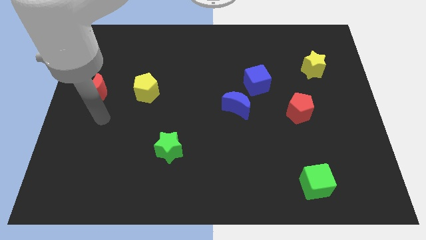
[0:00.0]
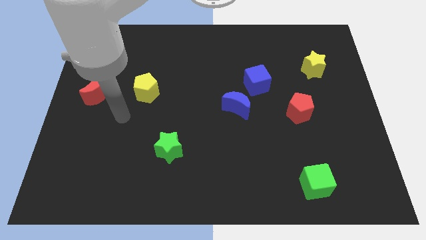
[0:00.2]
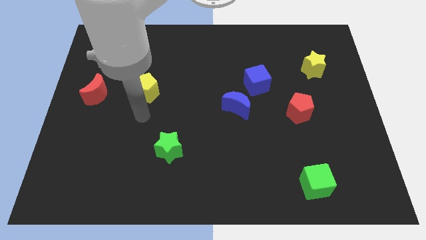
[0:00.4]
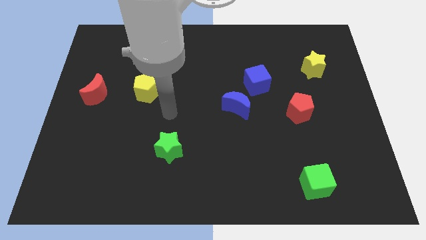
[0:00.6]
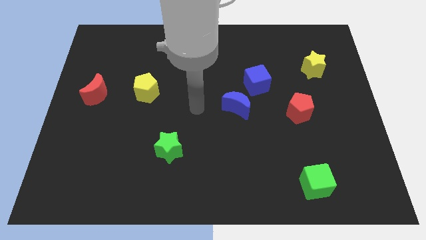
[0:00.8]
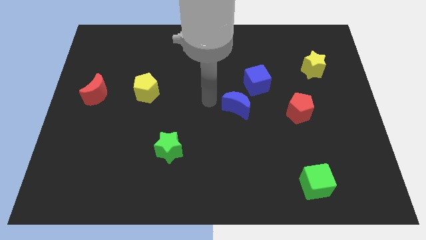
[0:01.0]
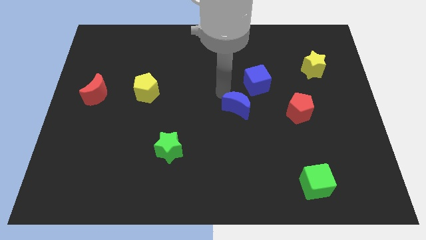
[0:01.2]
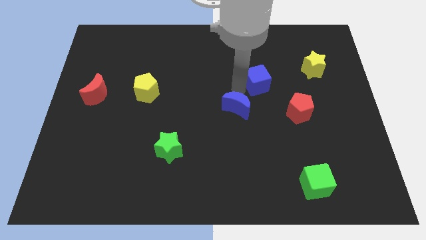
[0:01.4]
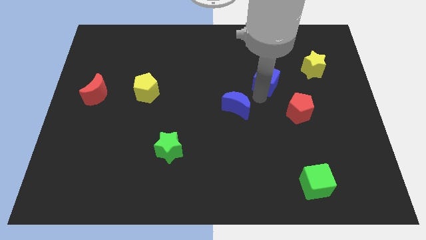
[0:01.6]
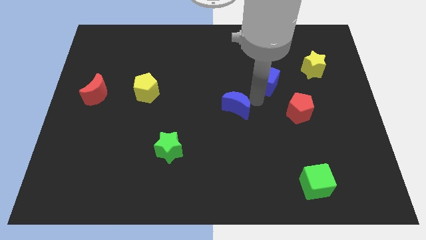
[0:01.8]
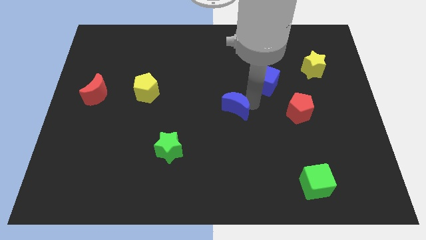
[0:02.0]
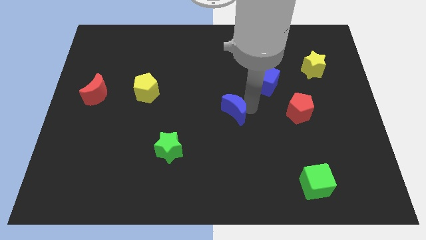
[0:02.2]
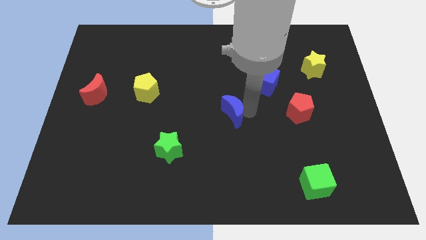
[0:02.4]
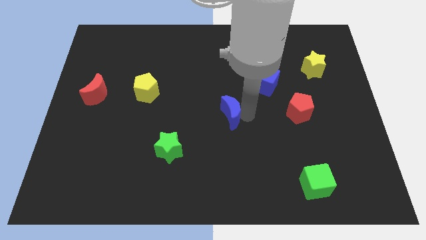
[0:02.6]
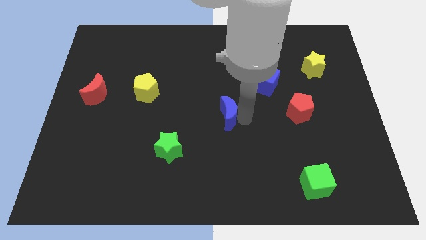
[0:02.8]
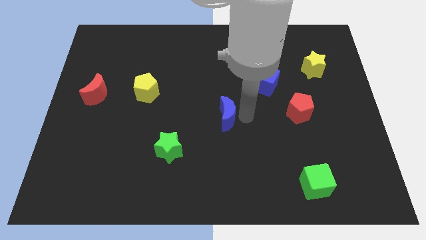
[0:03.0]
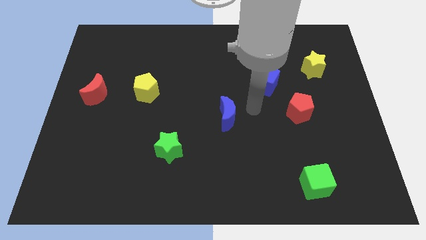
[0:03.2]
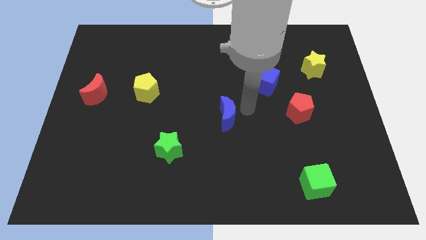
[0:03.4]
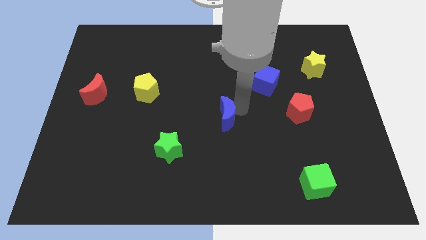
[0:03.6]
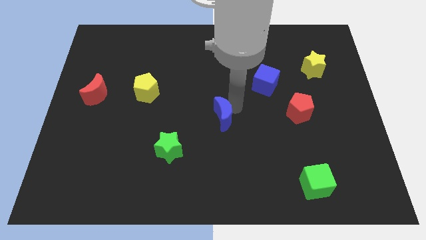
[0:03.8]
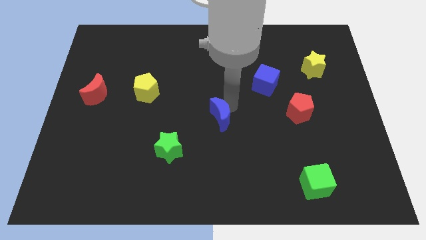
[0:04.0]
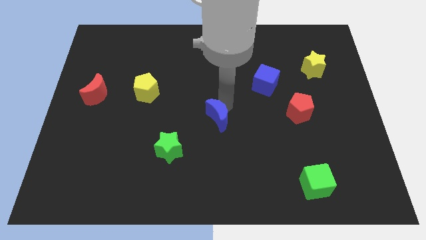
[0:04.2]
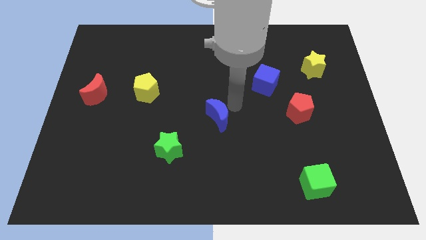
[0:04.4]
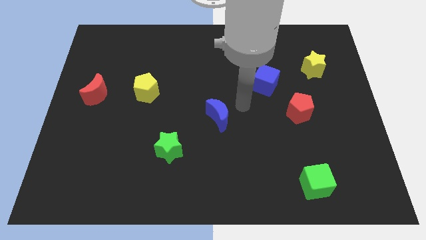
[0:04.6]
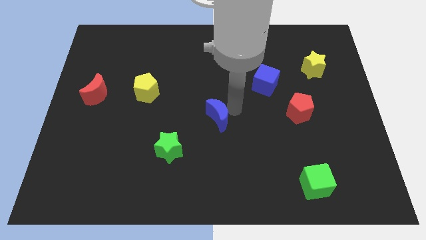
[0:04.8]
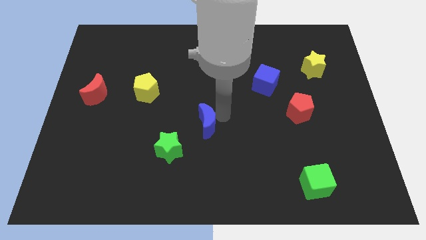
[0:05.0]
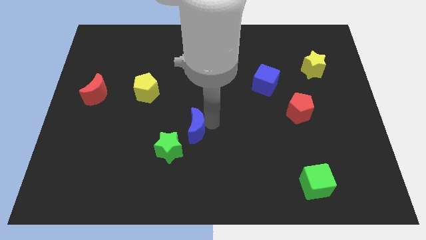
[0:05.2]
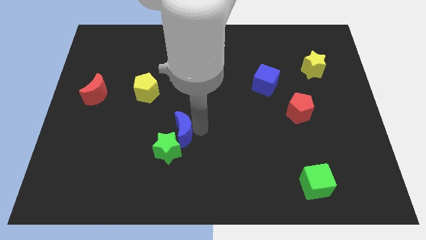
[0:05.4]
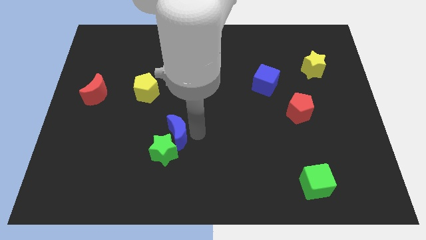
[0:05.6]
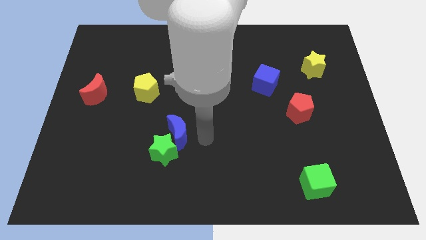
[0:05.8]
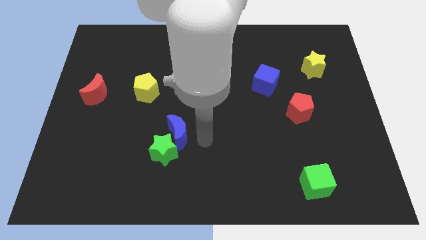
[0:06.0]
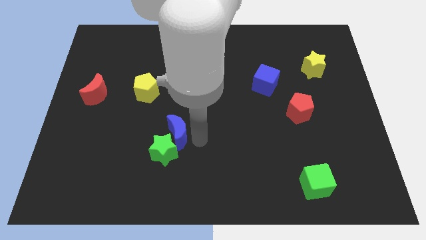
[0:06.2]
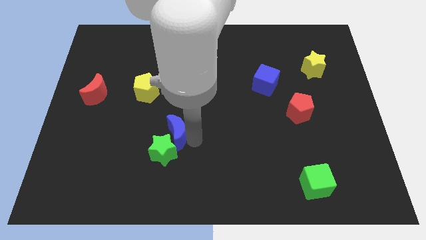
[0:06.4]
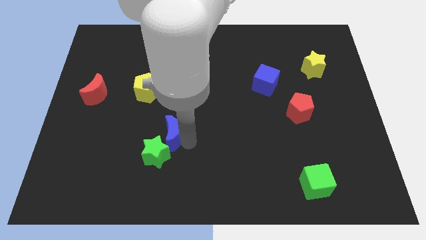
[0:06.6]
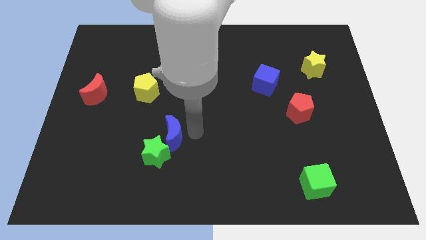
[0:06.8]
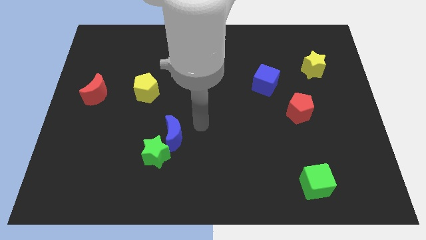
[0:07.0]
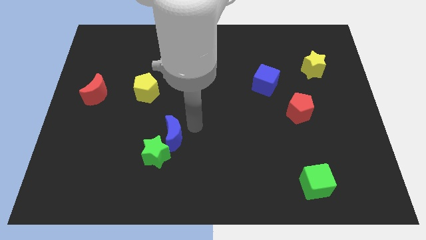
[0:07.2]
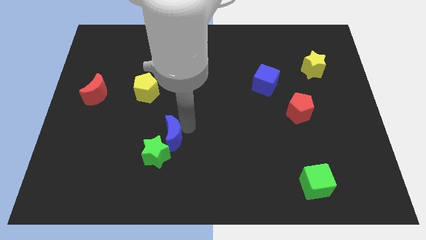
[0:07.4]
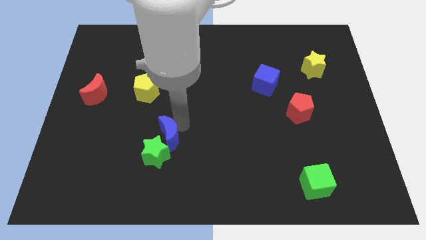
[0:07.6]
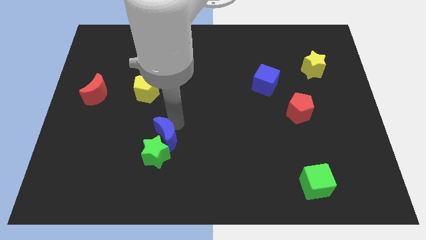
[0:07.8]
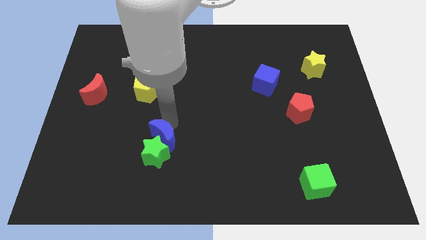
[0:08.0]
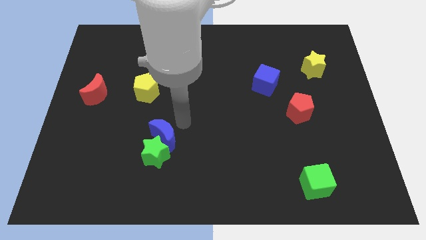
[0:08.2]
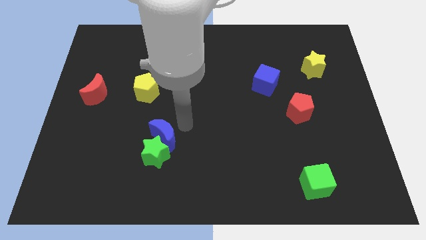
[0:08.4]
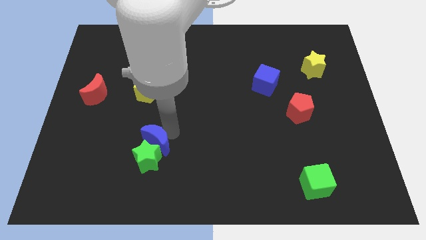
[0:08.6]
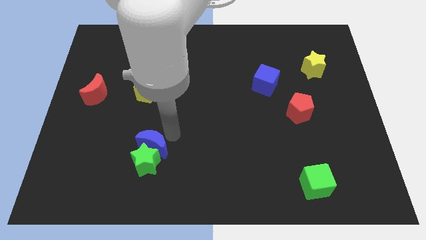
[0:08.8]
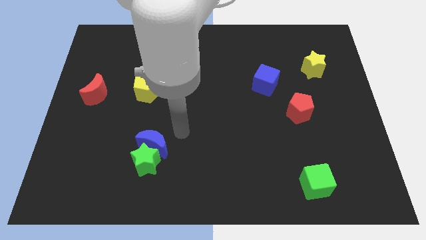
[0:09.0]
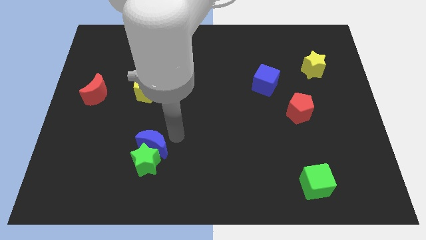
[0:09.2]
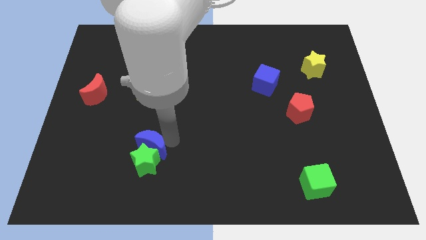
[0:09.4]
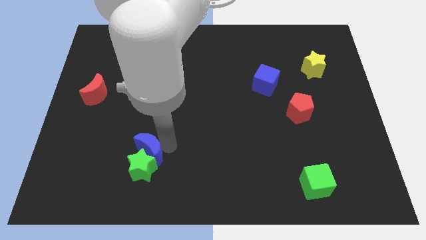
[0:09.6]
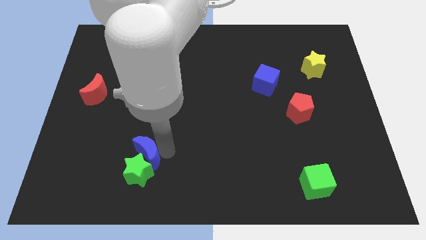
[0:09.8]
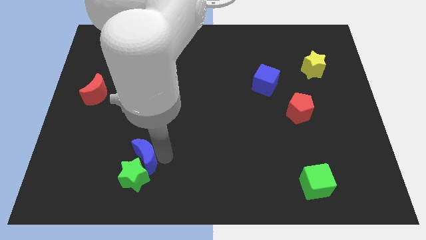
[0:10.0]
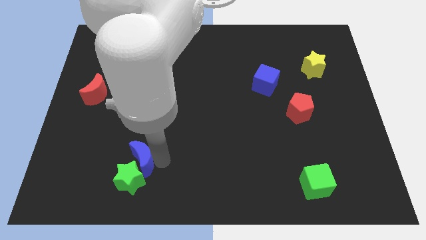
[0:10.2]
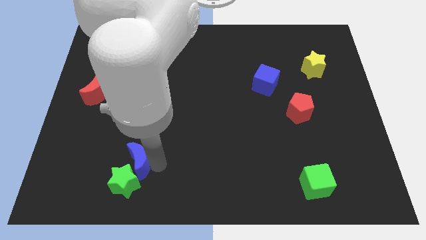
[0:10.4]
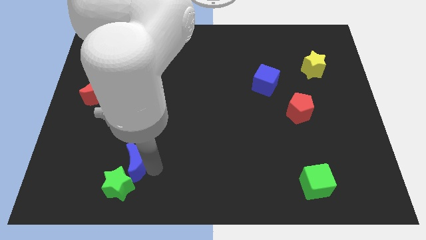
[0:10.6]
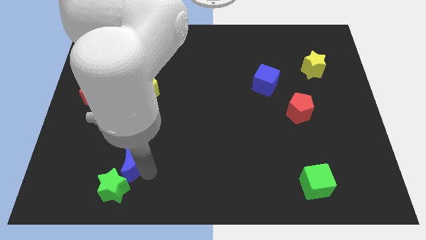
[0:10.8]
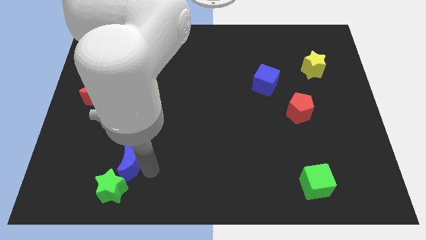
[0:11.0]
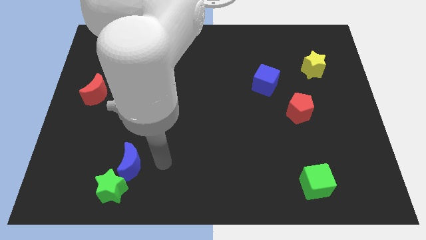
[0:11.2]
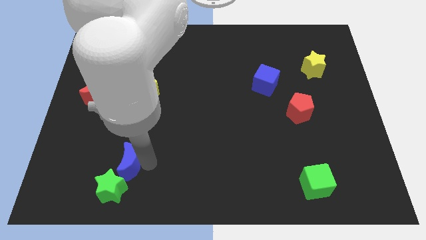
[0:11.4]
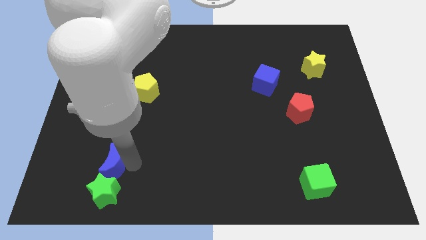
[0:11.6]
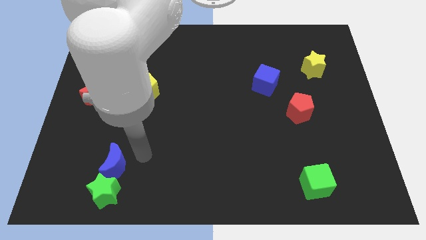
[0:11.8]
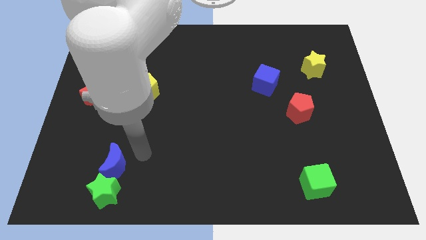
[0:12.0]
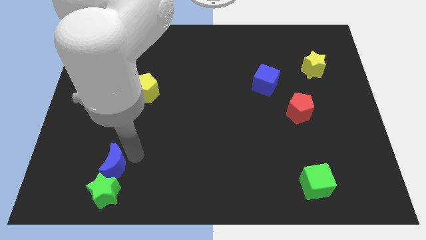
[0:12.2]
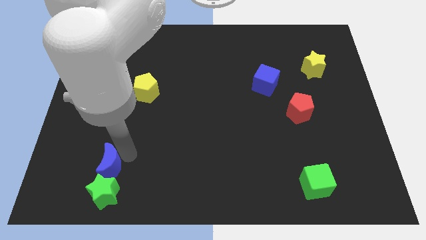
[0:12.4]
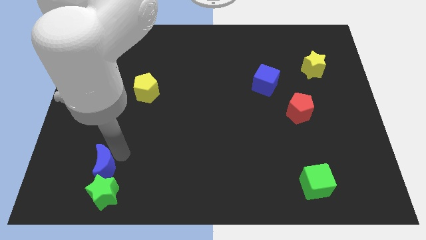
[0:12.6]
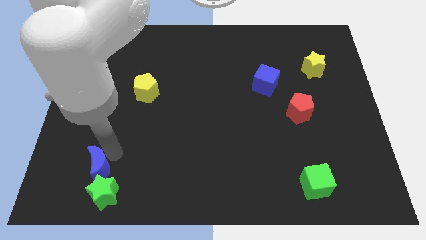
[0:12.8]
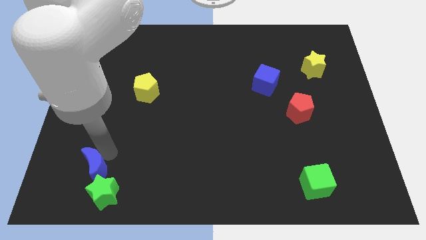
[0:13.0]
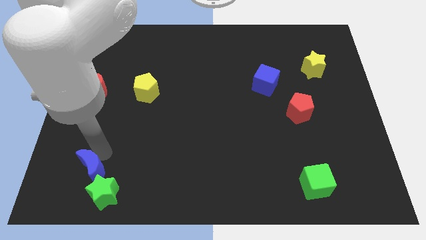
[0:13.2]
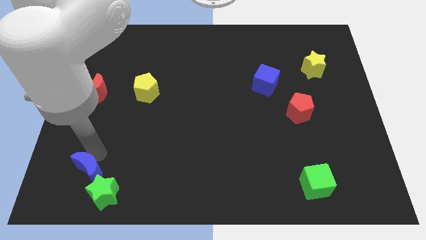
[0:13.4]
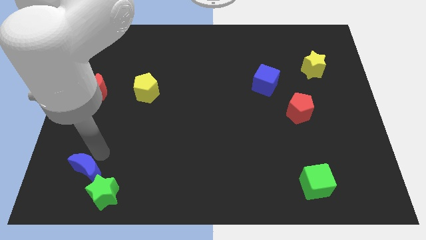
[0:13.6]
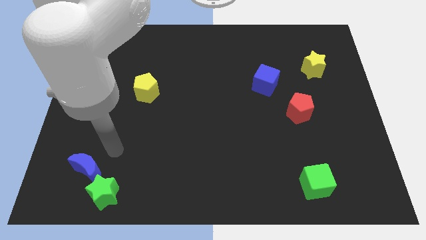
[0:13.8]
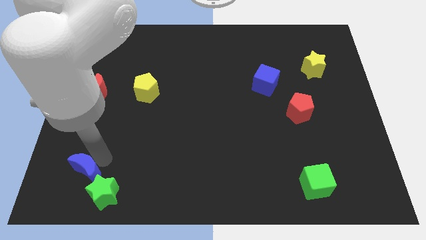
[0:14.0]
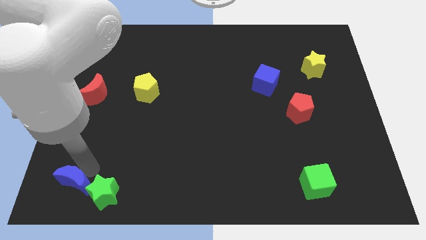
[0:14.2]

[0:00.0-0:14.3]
push the blue moon to the lower left corner
